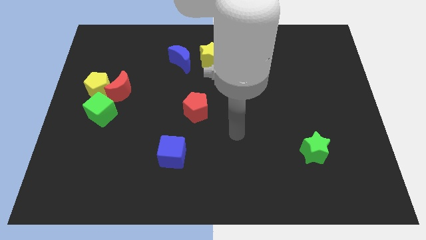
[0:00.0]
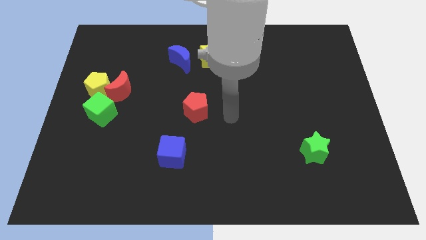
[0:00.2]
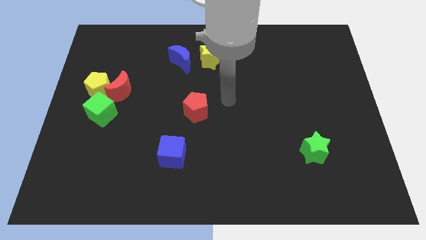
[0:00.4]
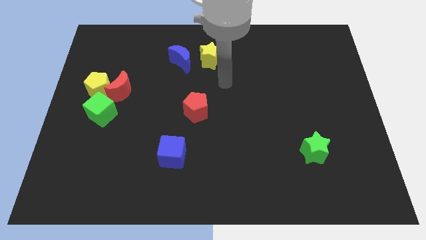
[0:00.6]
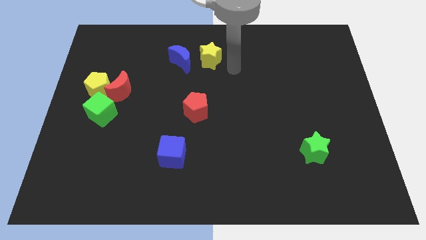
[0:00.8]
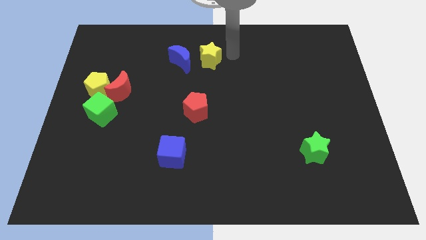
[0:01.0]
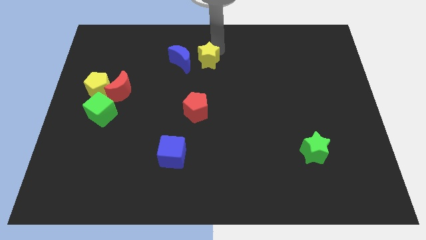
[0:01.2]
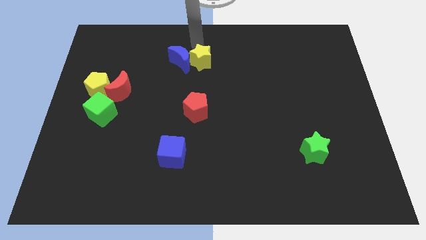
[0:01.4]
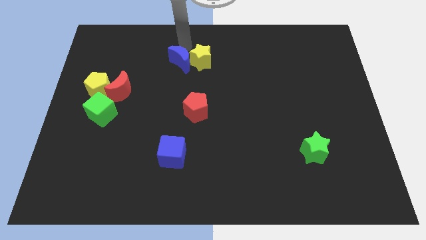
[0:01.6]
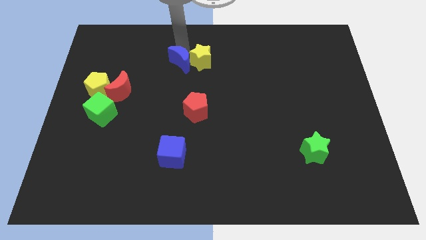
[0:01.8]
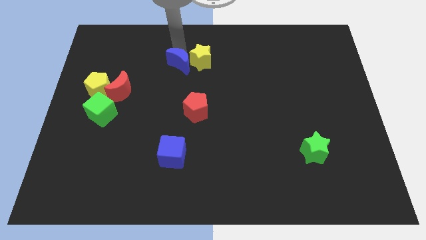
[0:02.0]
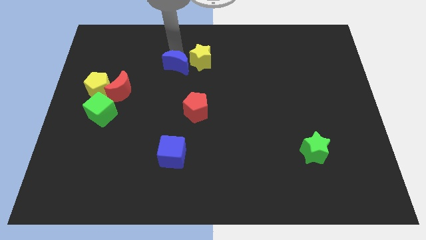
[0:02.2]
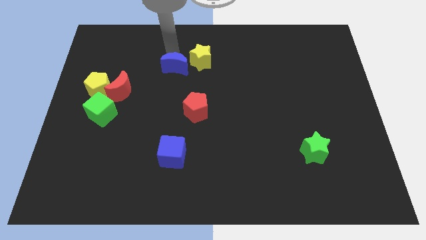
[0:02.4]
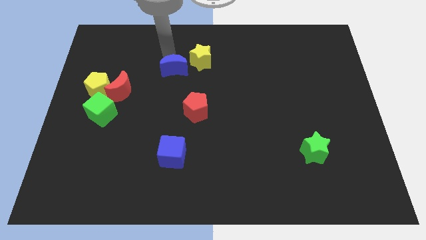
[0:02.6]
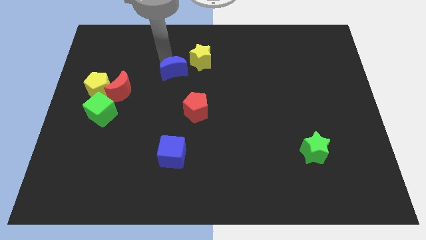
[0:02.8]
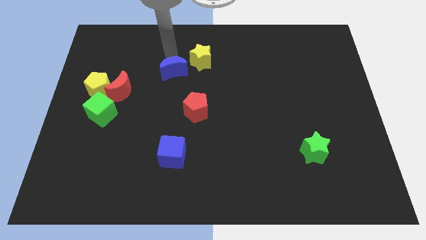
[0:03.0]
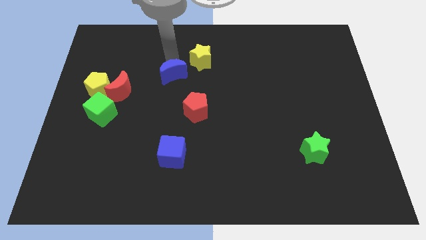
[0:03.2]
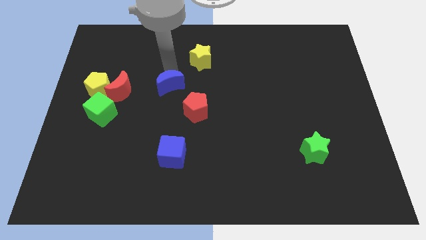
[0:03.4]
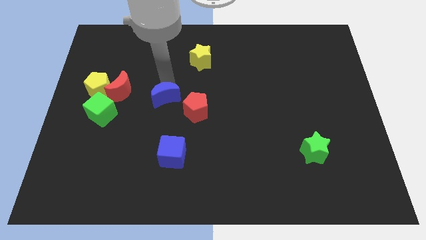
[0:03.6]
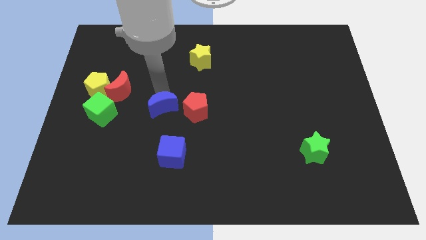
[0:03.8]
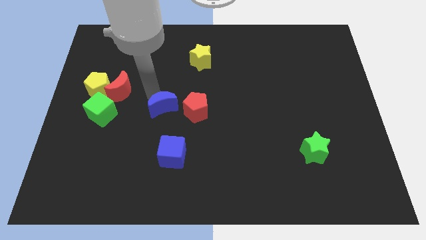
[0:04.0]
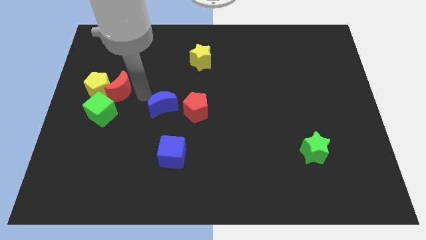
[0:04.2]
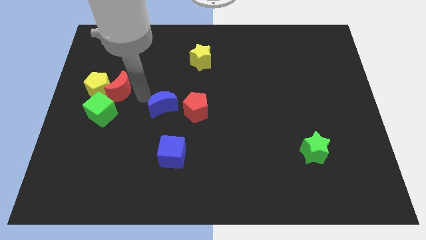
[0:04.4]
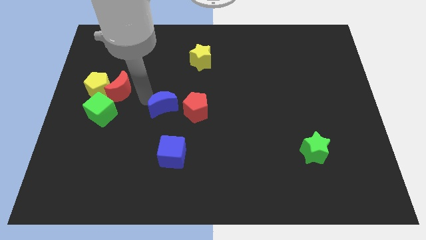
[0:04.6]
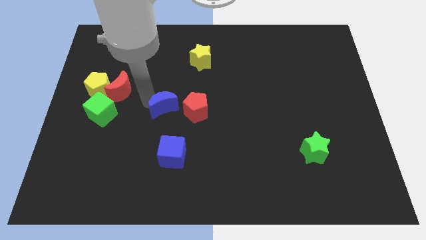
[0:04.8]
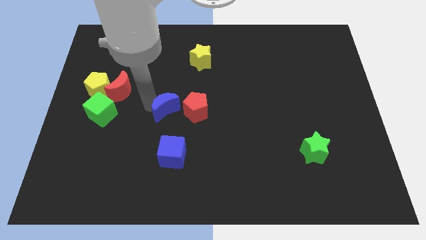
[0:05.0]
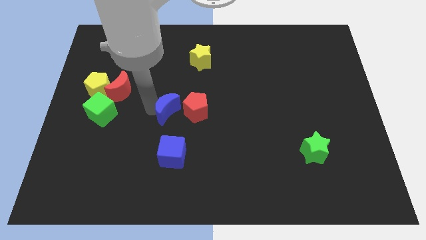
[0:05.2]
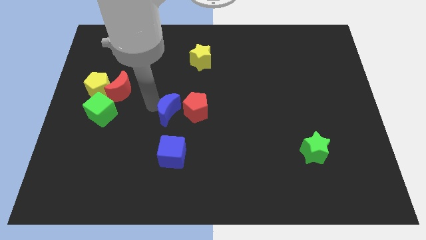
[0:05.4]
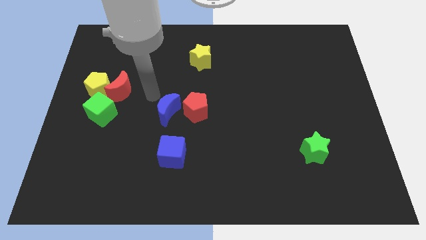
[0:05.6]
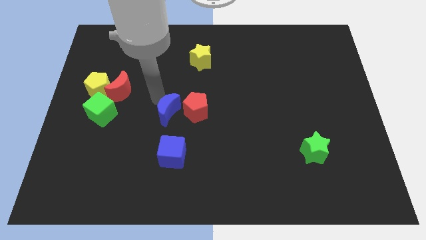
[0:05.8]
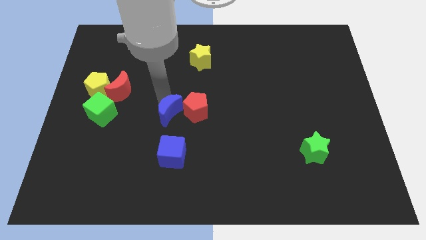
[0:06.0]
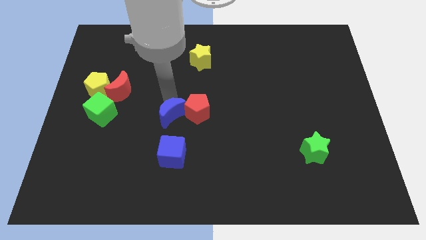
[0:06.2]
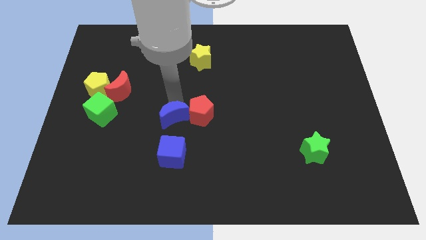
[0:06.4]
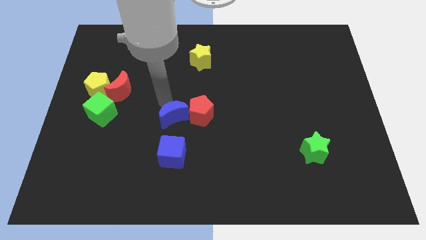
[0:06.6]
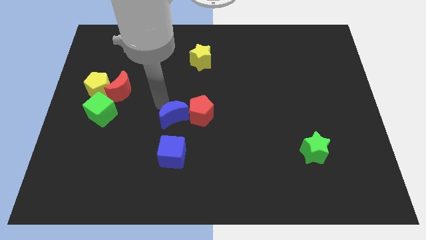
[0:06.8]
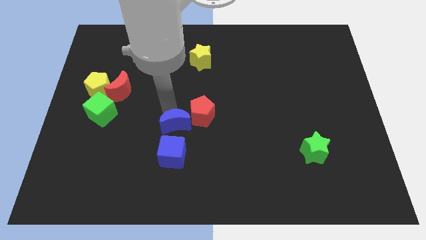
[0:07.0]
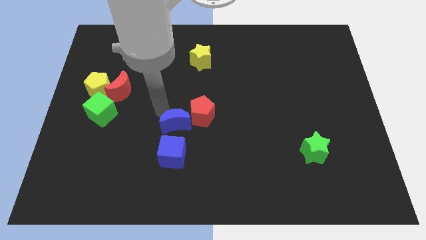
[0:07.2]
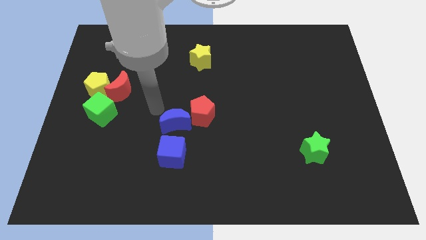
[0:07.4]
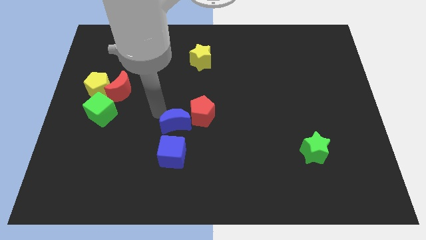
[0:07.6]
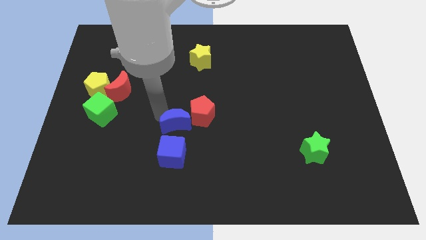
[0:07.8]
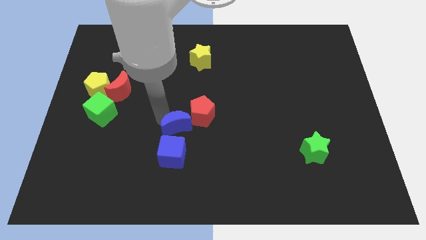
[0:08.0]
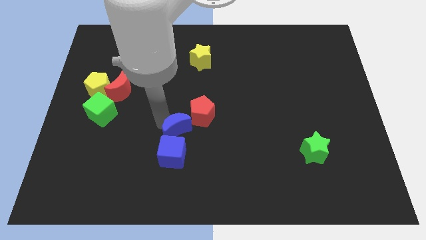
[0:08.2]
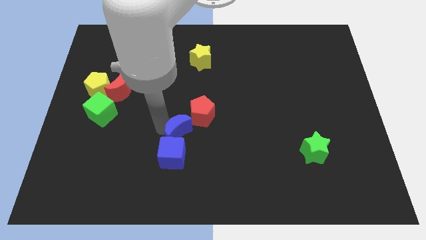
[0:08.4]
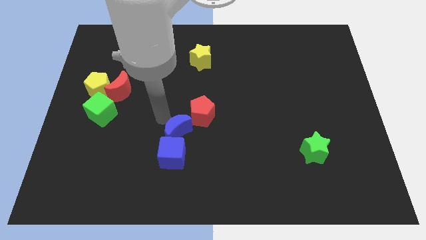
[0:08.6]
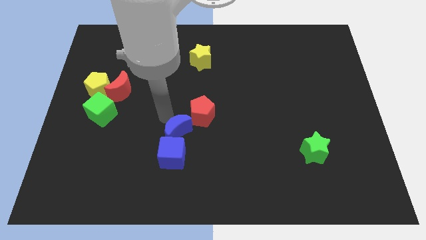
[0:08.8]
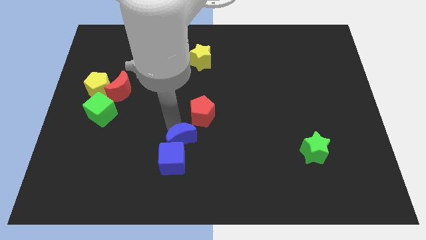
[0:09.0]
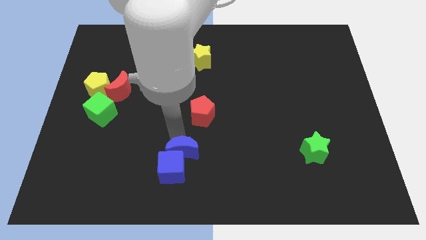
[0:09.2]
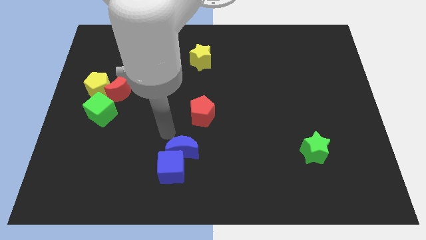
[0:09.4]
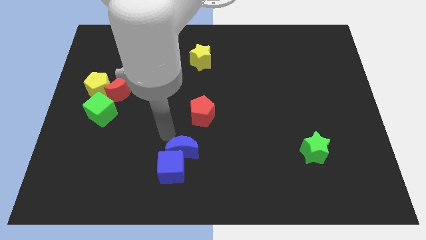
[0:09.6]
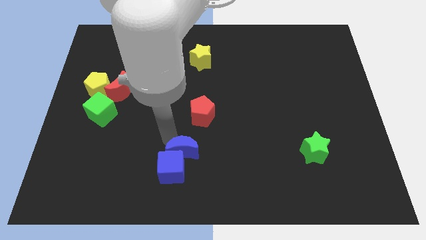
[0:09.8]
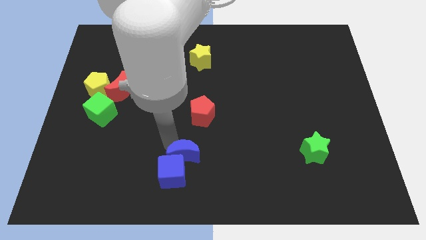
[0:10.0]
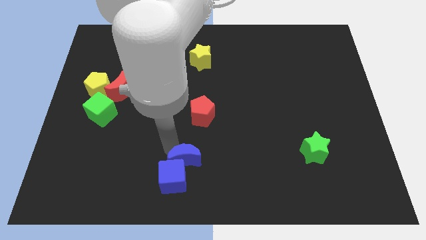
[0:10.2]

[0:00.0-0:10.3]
move the blue moon to the bottom

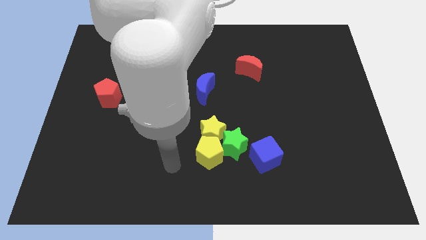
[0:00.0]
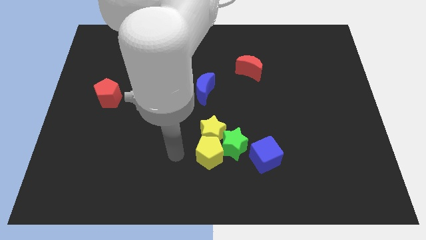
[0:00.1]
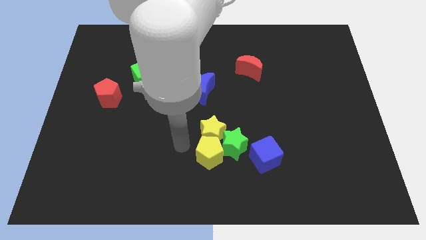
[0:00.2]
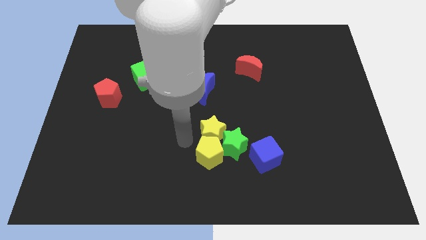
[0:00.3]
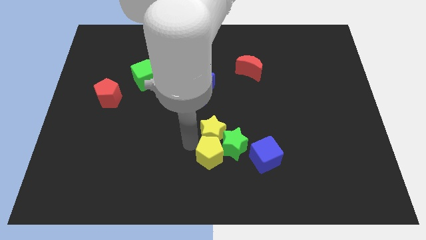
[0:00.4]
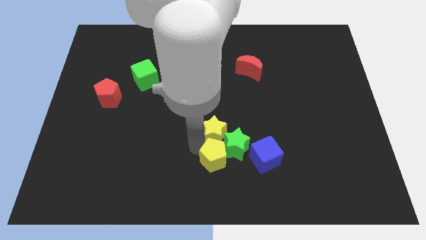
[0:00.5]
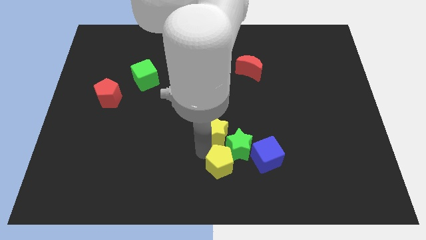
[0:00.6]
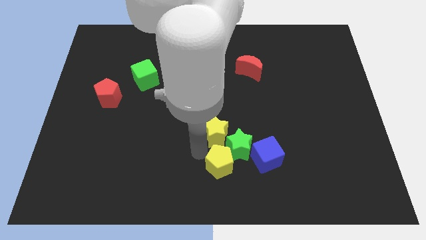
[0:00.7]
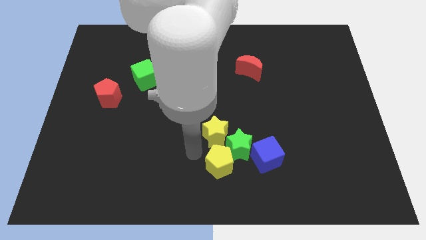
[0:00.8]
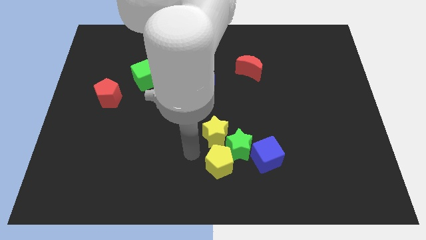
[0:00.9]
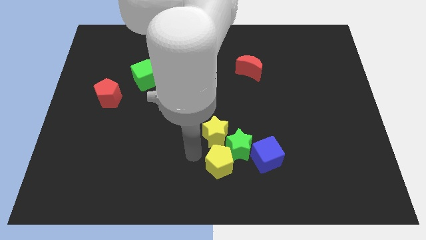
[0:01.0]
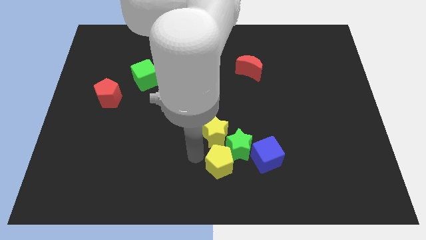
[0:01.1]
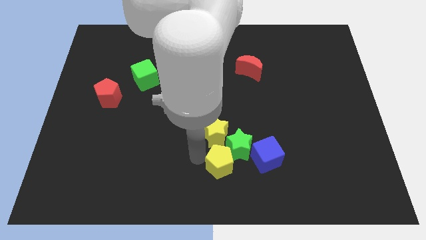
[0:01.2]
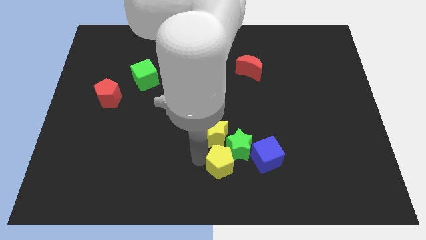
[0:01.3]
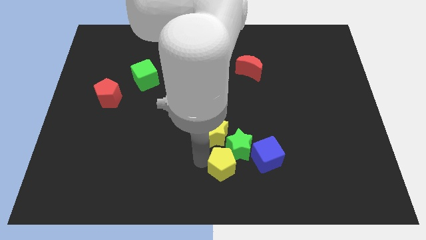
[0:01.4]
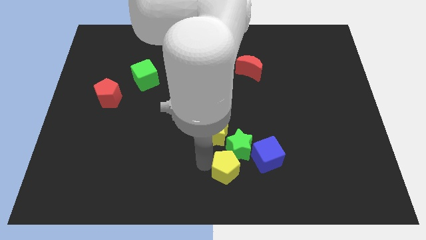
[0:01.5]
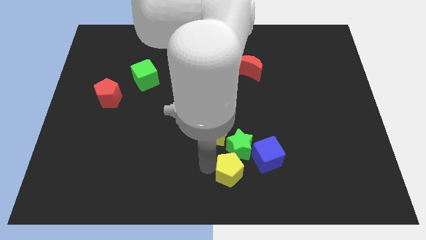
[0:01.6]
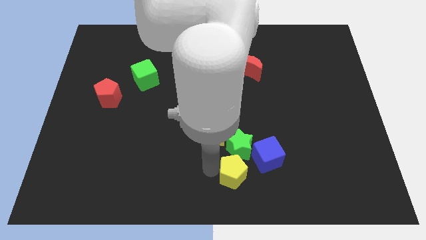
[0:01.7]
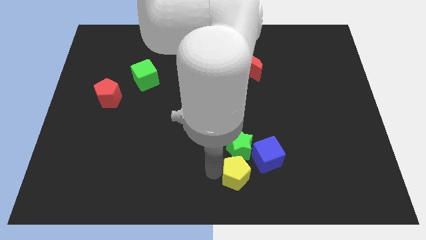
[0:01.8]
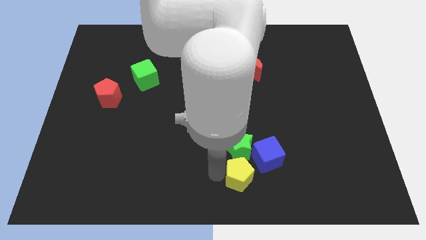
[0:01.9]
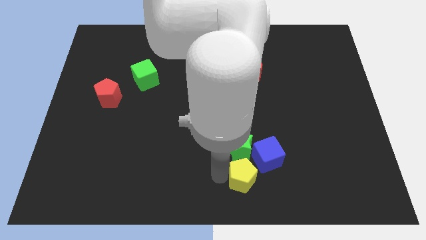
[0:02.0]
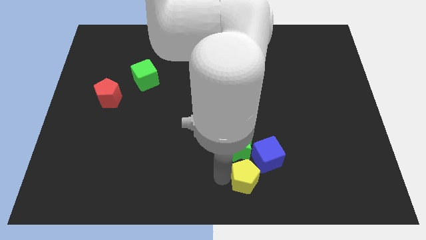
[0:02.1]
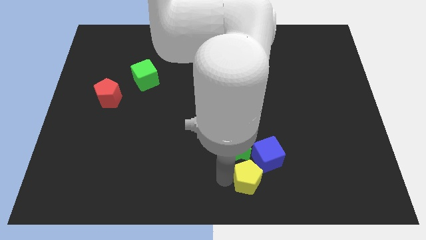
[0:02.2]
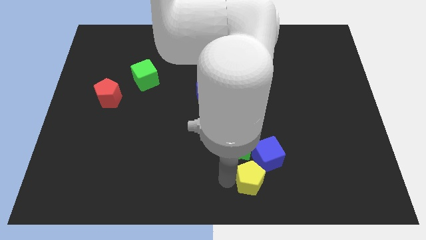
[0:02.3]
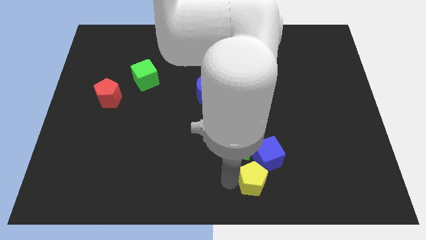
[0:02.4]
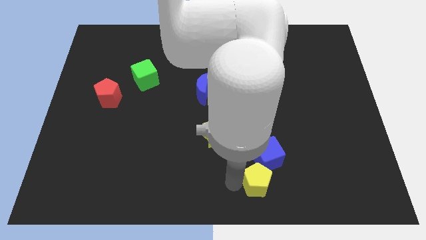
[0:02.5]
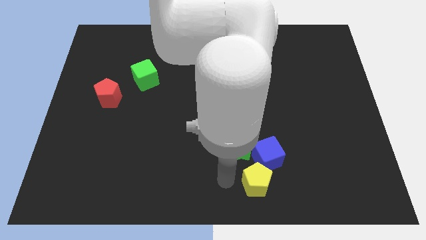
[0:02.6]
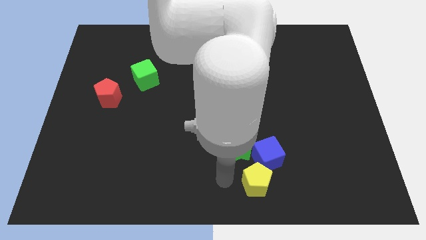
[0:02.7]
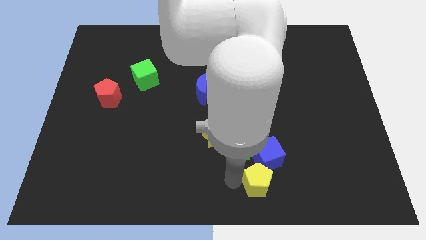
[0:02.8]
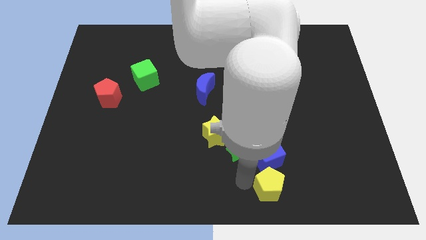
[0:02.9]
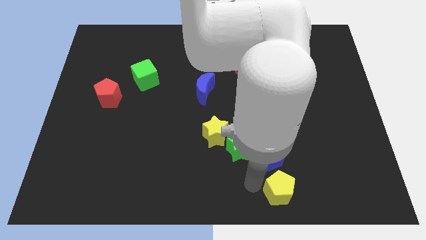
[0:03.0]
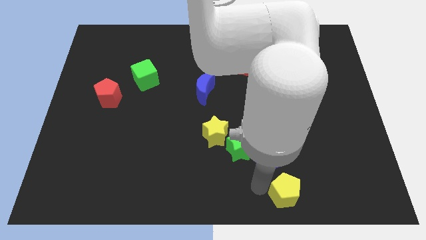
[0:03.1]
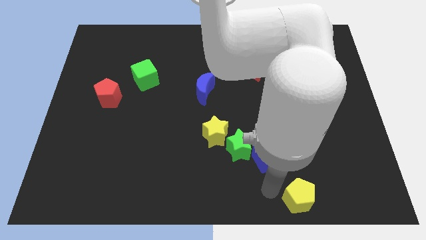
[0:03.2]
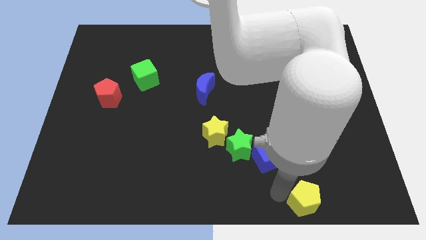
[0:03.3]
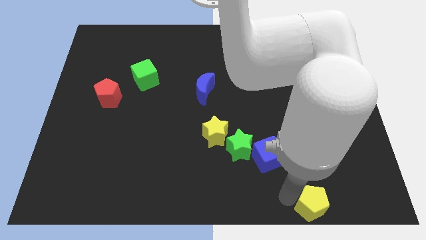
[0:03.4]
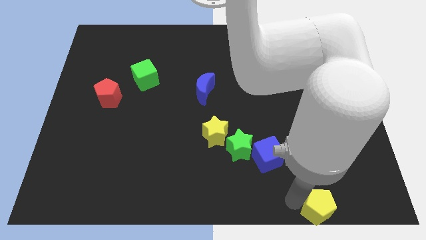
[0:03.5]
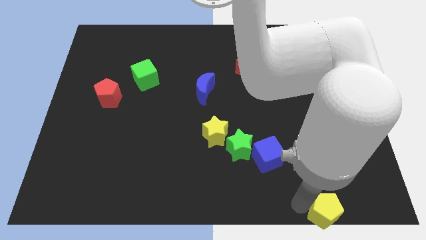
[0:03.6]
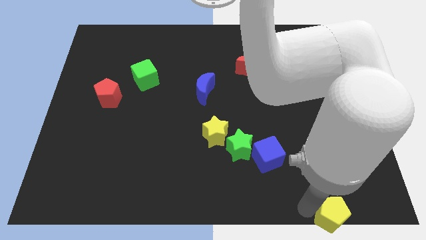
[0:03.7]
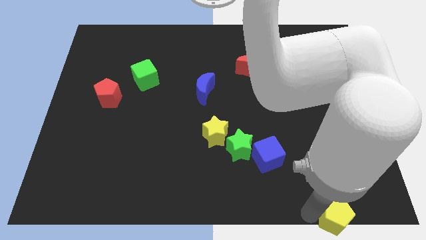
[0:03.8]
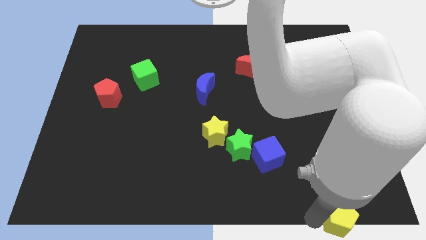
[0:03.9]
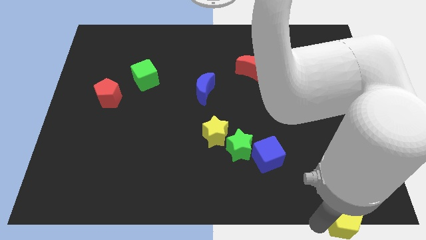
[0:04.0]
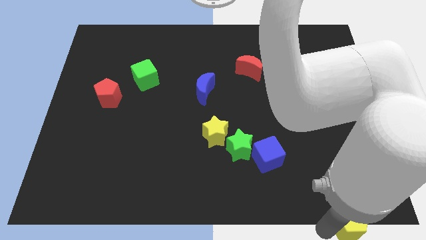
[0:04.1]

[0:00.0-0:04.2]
push the yellow pentagon to the bottom right of the board
